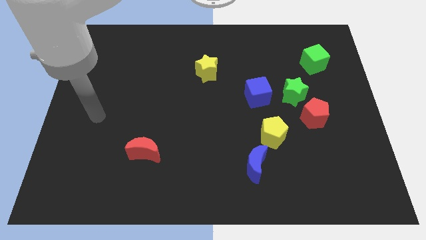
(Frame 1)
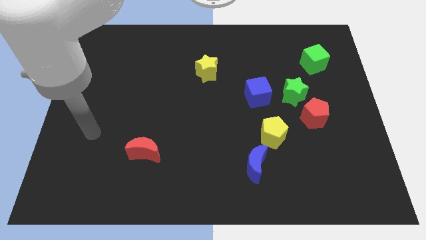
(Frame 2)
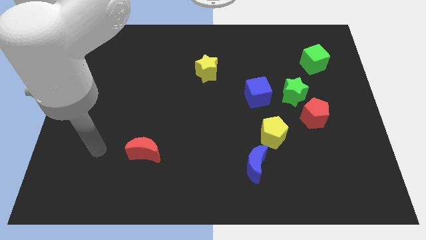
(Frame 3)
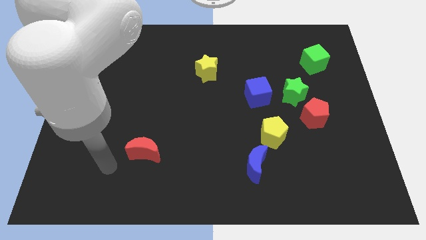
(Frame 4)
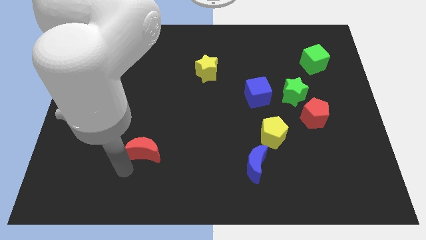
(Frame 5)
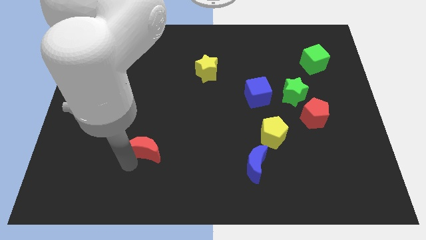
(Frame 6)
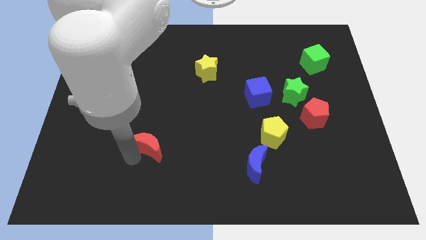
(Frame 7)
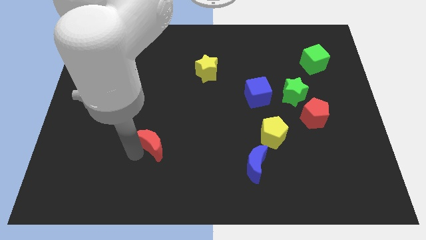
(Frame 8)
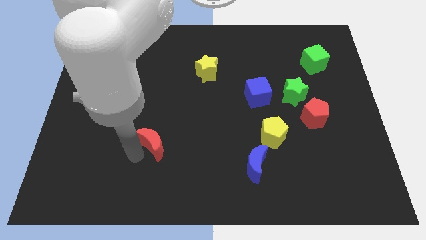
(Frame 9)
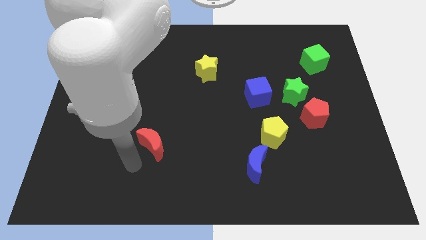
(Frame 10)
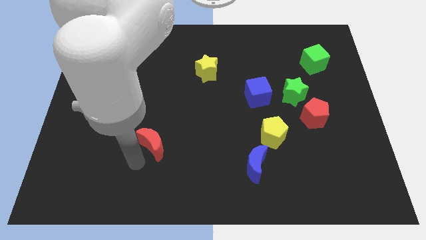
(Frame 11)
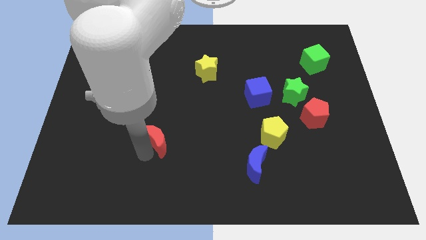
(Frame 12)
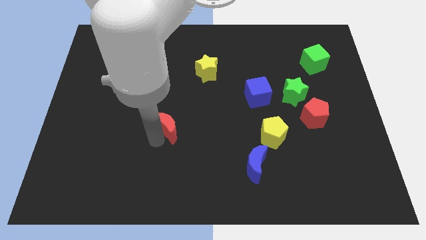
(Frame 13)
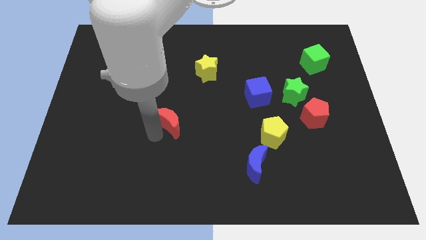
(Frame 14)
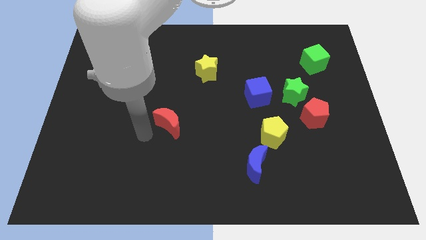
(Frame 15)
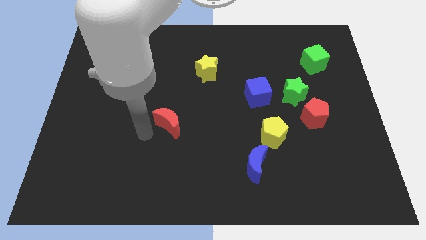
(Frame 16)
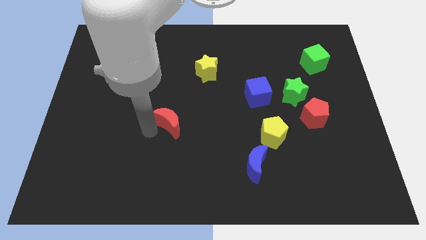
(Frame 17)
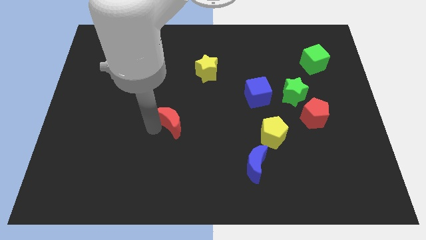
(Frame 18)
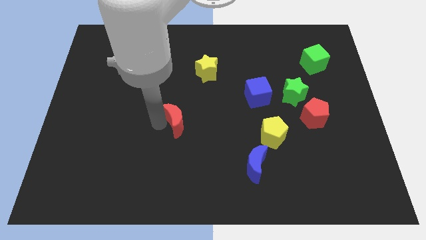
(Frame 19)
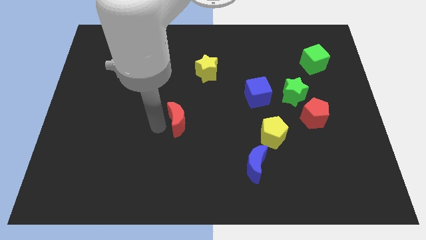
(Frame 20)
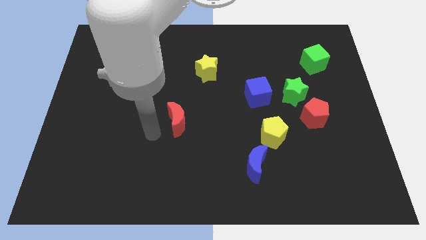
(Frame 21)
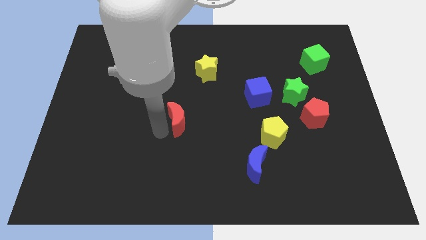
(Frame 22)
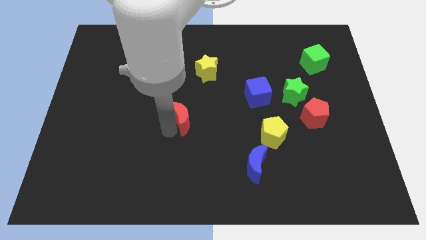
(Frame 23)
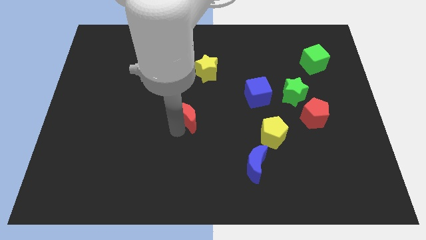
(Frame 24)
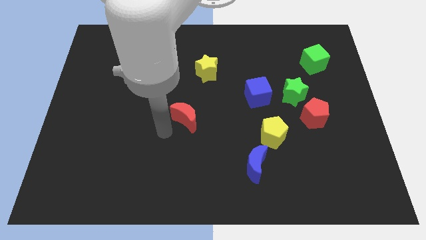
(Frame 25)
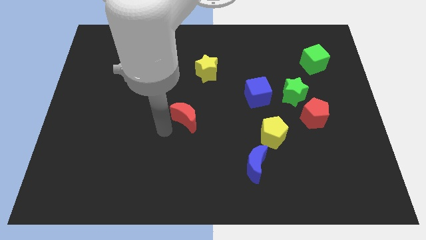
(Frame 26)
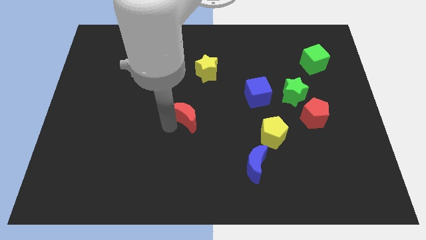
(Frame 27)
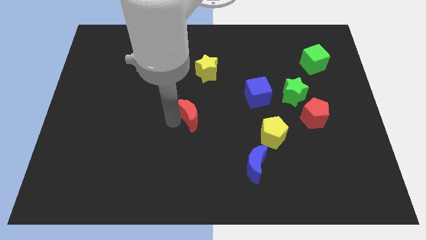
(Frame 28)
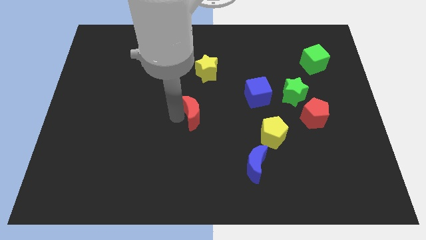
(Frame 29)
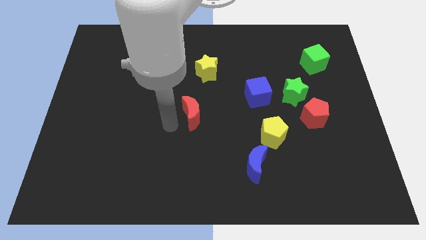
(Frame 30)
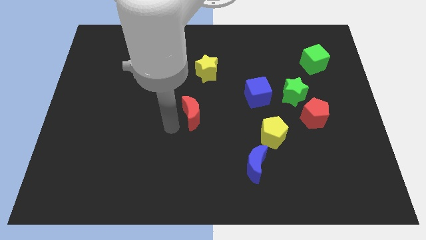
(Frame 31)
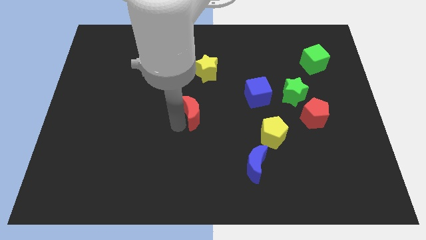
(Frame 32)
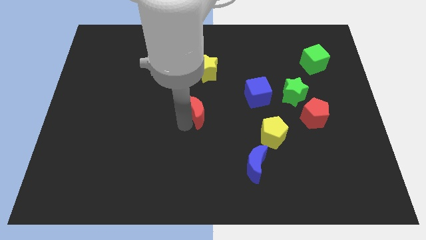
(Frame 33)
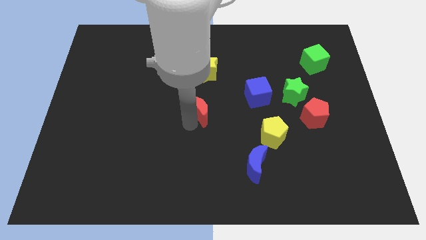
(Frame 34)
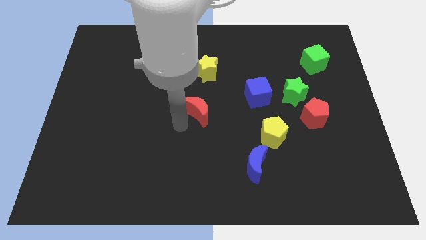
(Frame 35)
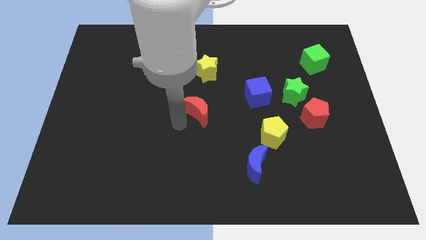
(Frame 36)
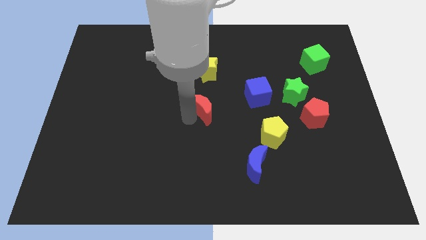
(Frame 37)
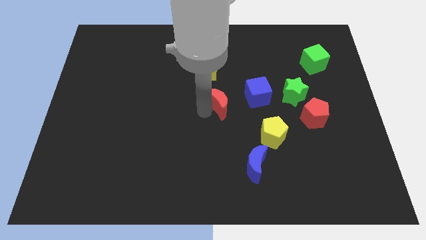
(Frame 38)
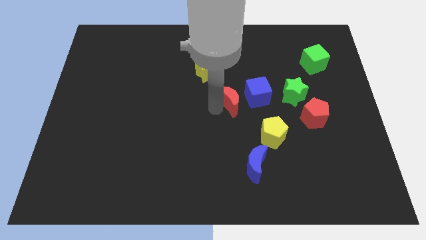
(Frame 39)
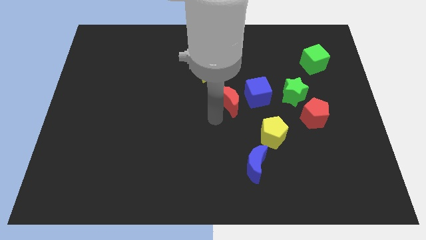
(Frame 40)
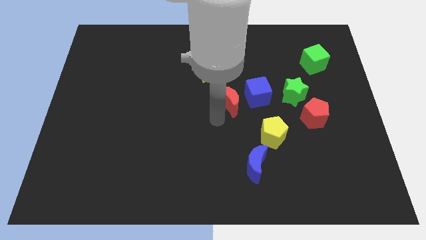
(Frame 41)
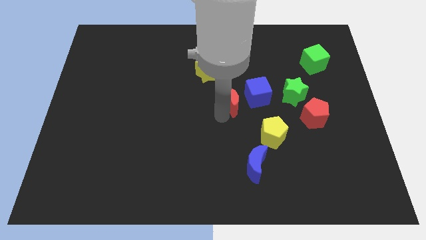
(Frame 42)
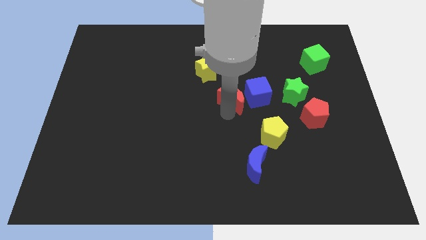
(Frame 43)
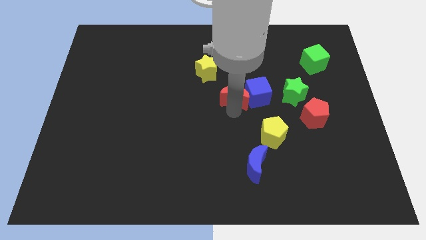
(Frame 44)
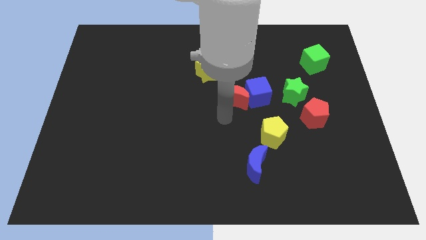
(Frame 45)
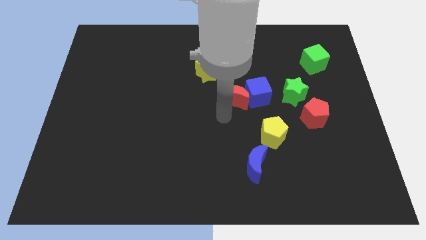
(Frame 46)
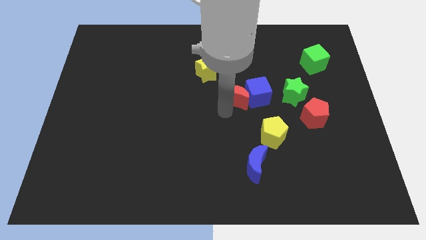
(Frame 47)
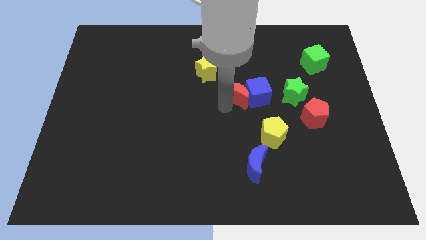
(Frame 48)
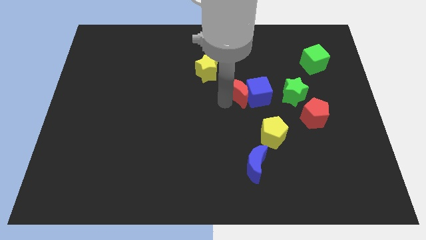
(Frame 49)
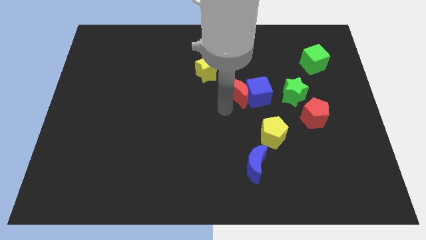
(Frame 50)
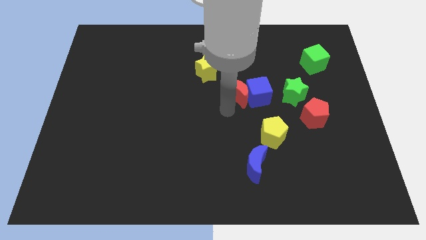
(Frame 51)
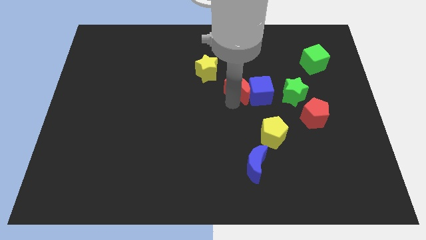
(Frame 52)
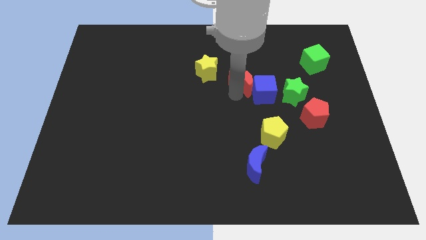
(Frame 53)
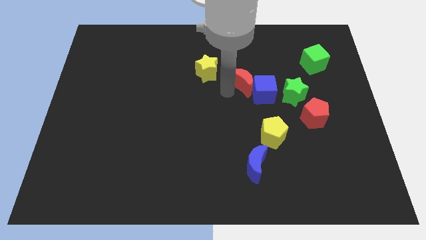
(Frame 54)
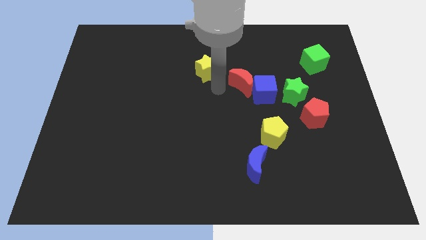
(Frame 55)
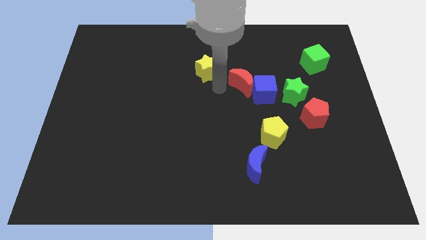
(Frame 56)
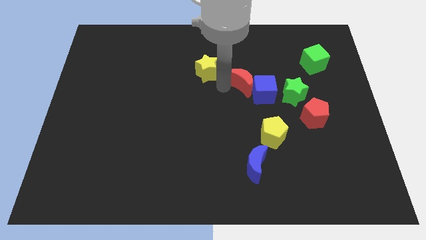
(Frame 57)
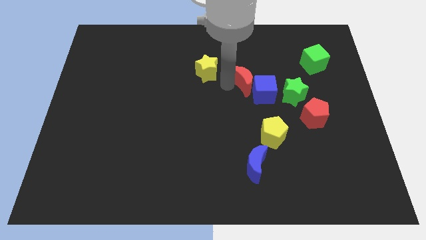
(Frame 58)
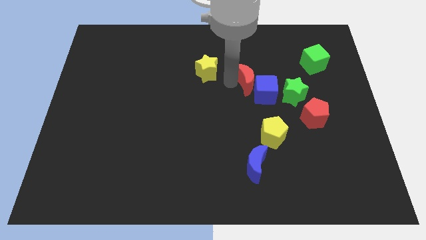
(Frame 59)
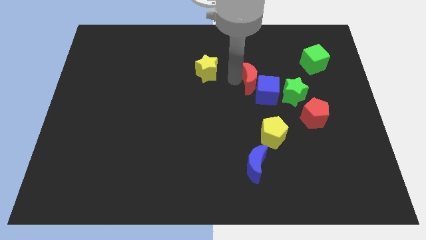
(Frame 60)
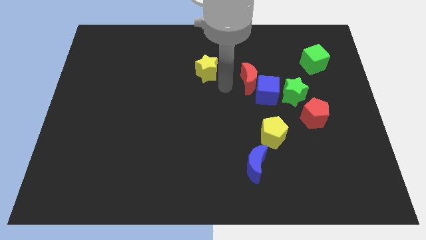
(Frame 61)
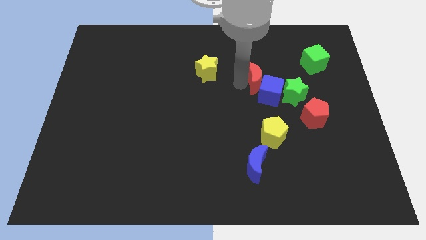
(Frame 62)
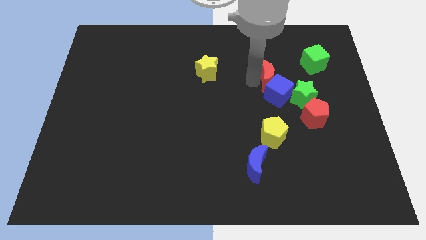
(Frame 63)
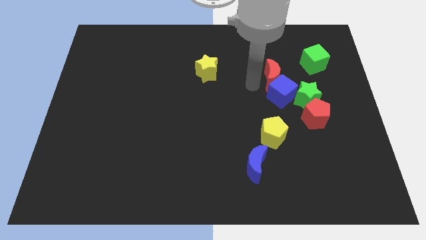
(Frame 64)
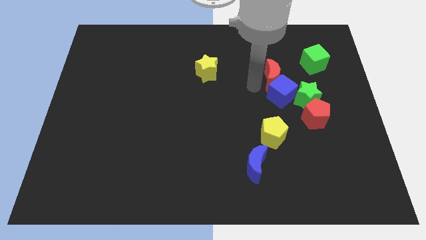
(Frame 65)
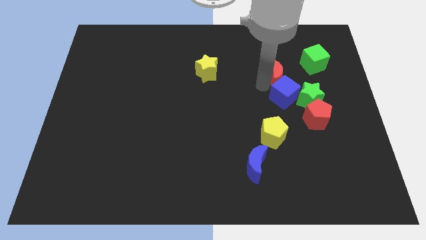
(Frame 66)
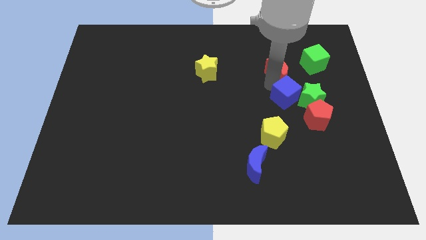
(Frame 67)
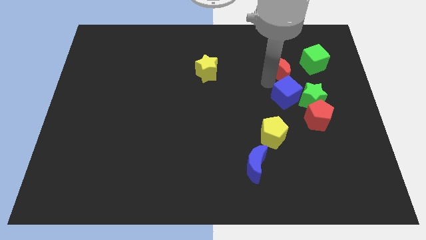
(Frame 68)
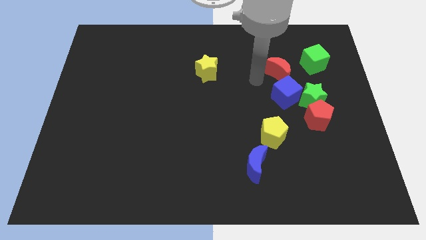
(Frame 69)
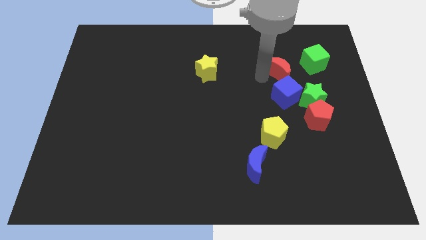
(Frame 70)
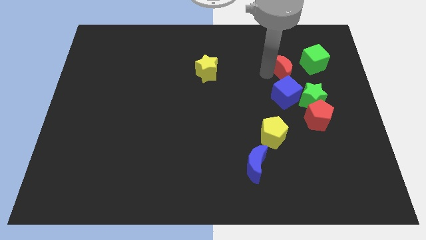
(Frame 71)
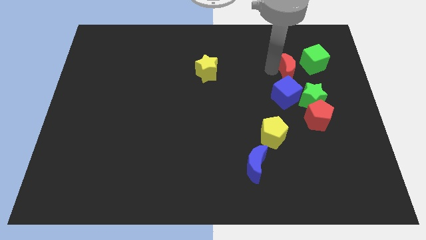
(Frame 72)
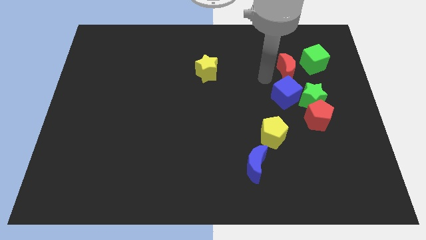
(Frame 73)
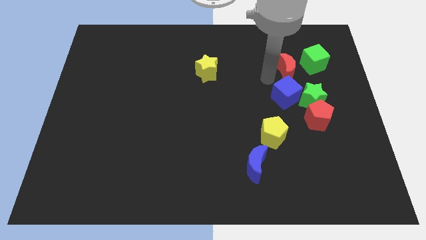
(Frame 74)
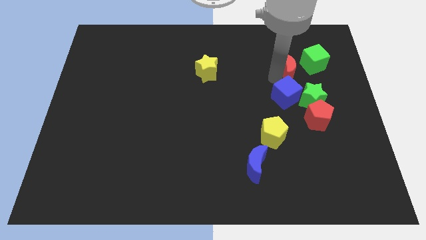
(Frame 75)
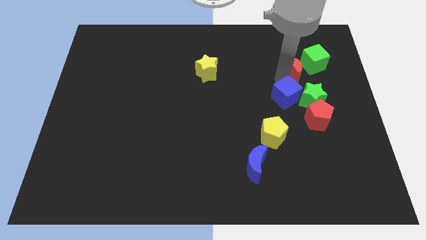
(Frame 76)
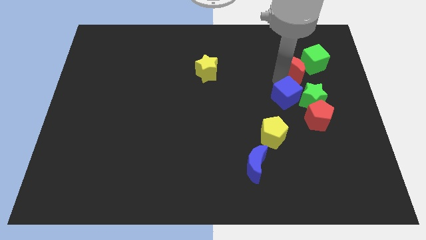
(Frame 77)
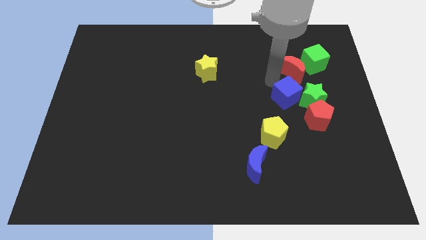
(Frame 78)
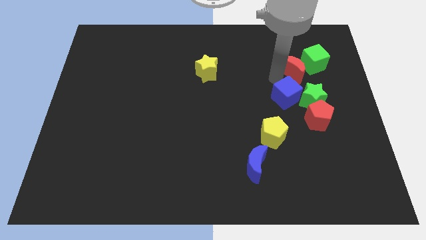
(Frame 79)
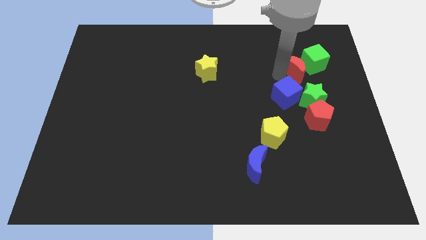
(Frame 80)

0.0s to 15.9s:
slide the red moon next to the green cube
